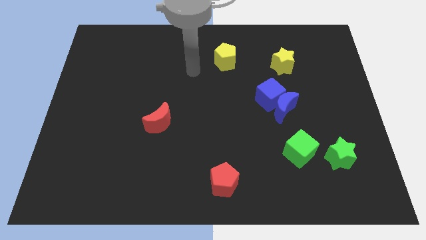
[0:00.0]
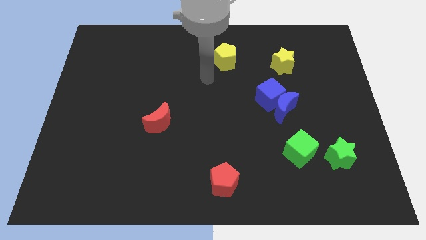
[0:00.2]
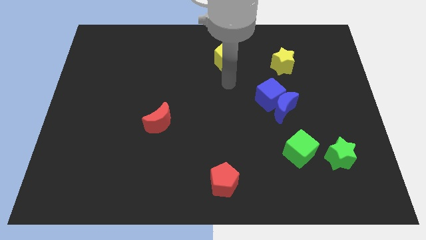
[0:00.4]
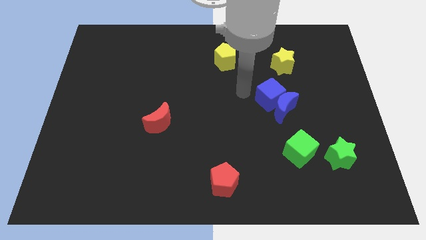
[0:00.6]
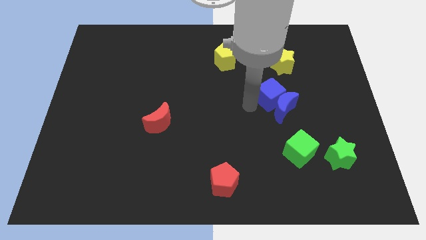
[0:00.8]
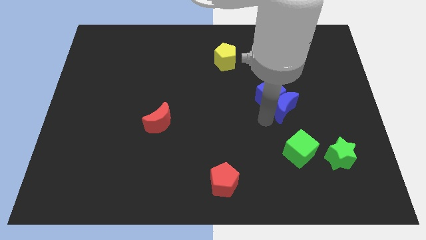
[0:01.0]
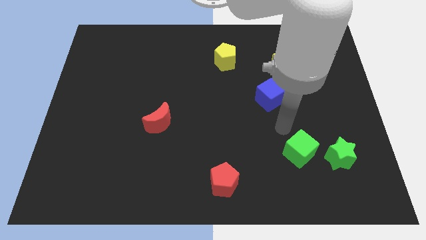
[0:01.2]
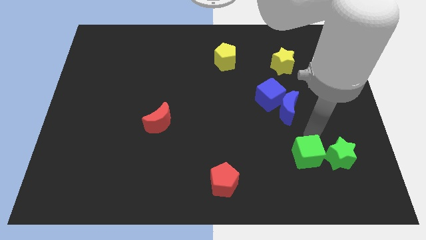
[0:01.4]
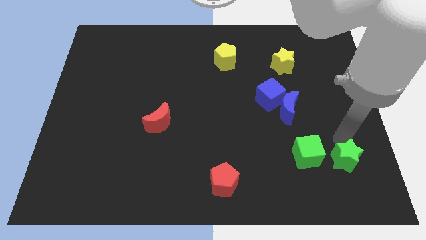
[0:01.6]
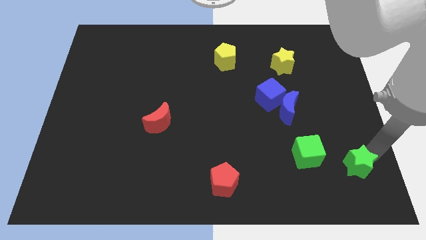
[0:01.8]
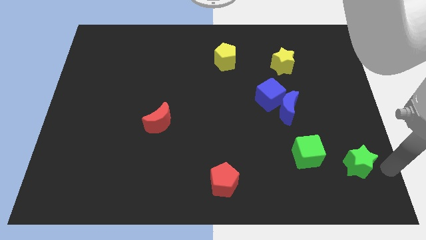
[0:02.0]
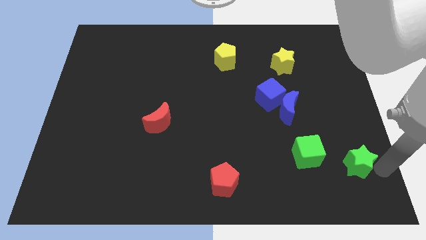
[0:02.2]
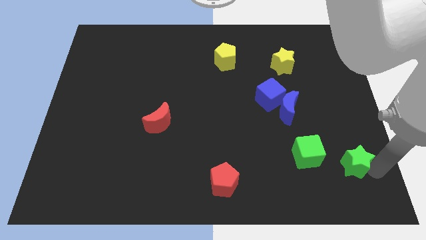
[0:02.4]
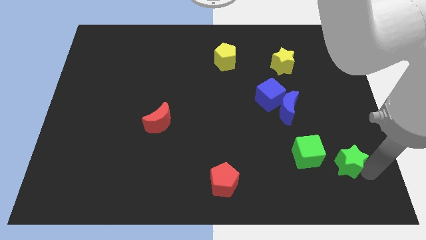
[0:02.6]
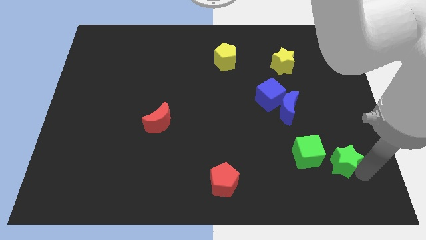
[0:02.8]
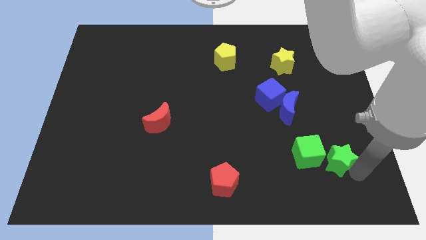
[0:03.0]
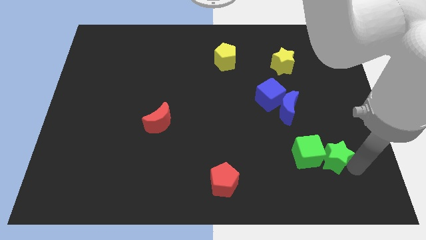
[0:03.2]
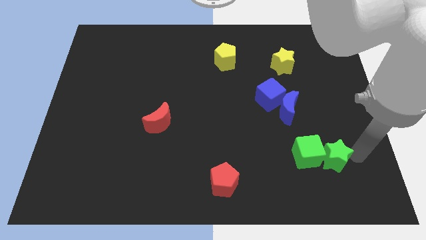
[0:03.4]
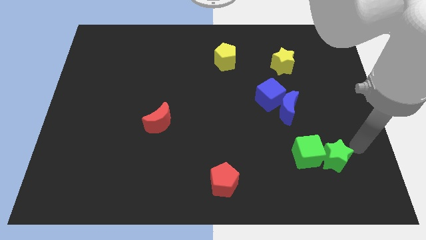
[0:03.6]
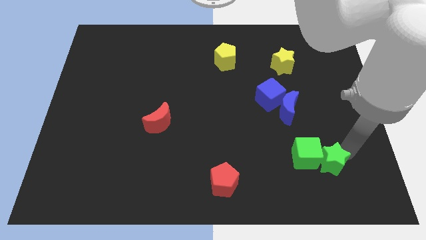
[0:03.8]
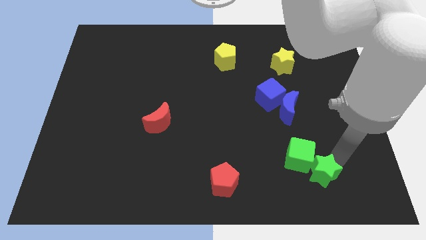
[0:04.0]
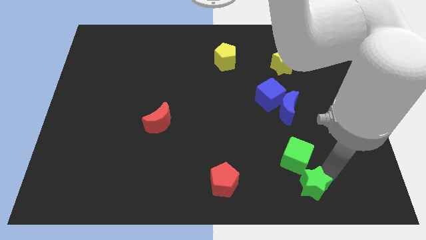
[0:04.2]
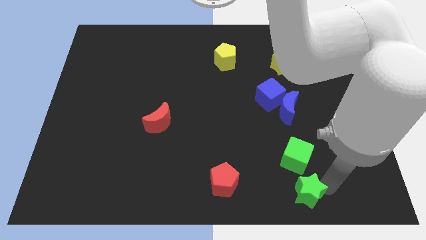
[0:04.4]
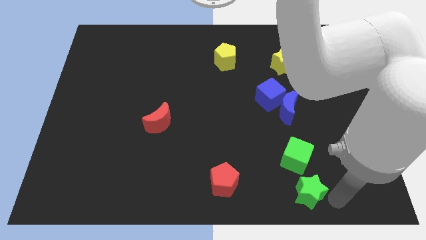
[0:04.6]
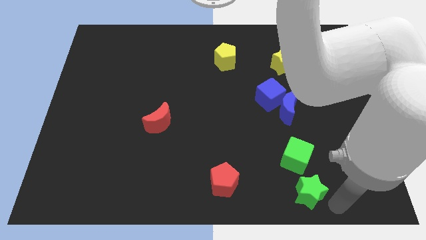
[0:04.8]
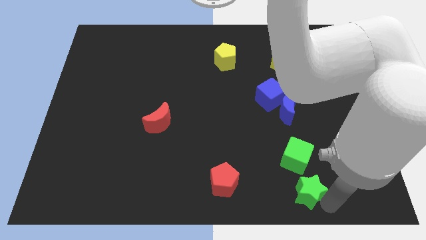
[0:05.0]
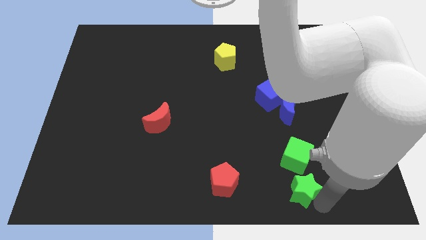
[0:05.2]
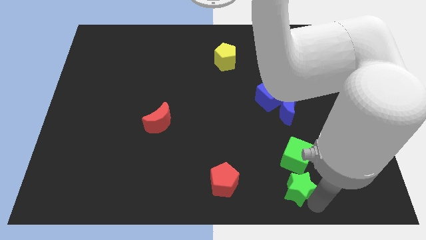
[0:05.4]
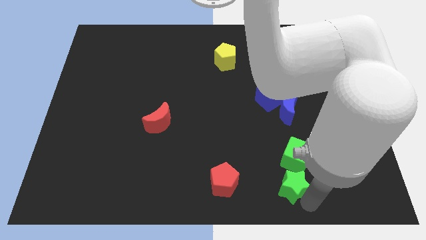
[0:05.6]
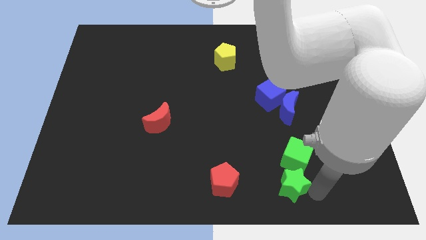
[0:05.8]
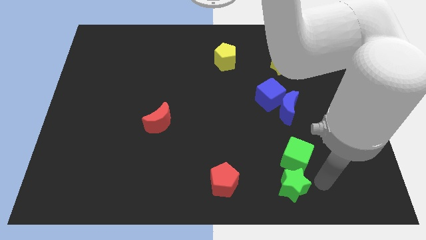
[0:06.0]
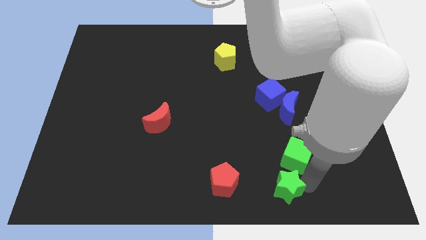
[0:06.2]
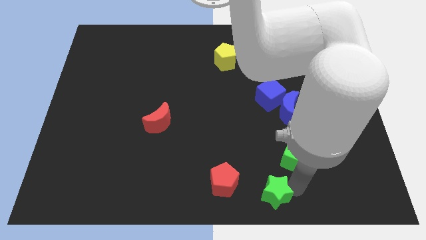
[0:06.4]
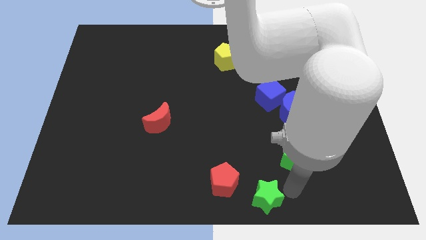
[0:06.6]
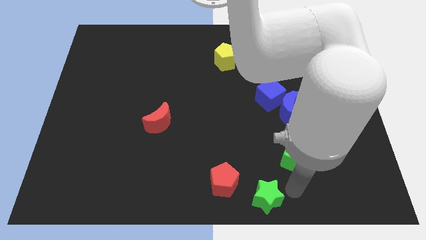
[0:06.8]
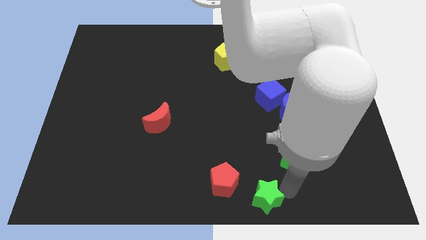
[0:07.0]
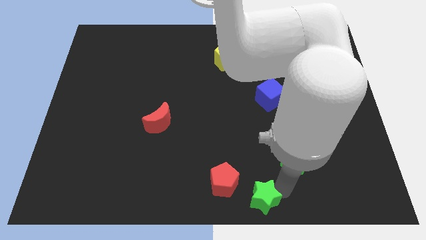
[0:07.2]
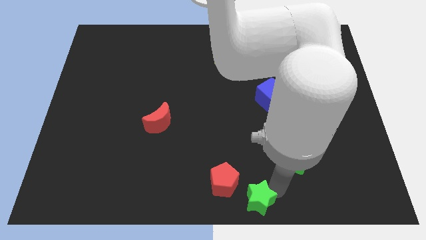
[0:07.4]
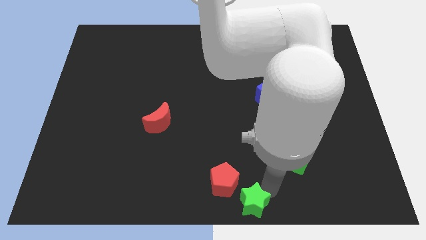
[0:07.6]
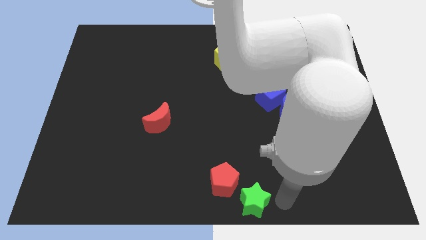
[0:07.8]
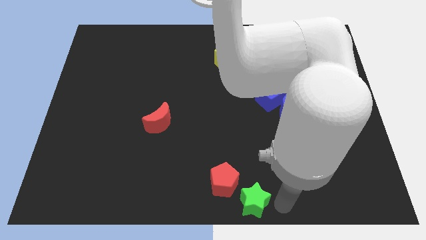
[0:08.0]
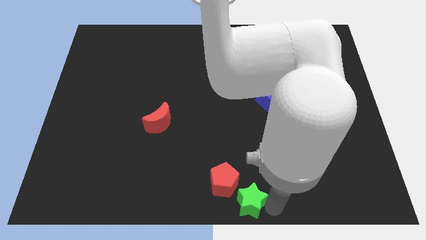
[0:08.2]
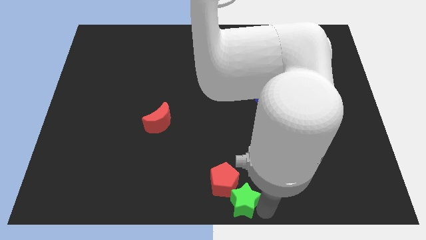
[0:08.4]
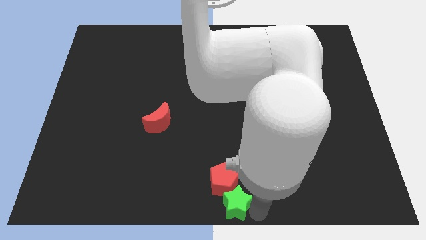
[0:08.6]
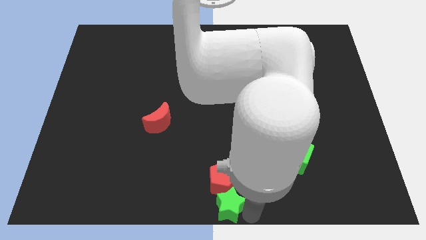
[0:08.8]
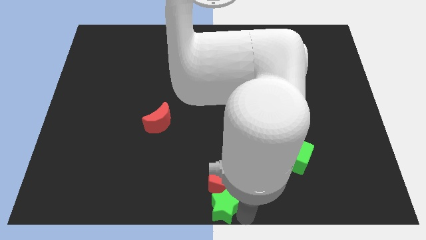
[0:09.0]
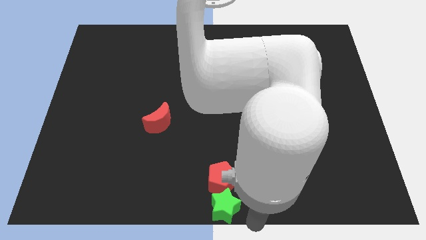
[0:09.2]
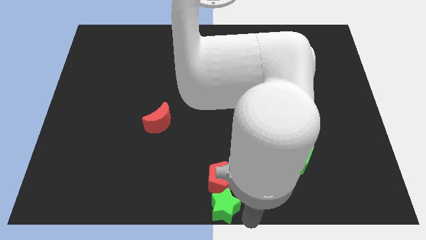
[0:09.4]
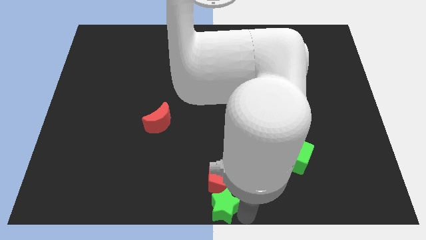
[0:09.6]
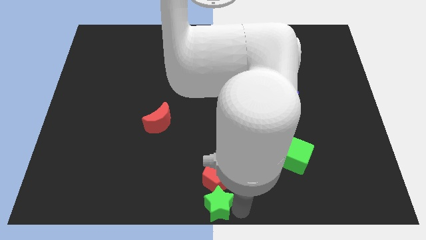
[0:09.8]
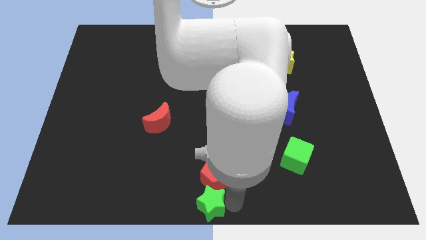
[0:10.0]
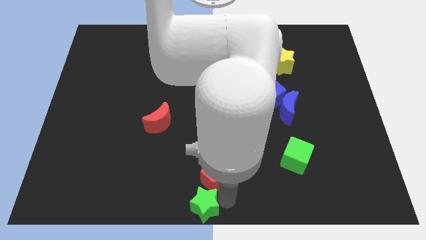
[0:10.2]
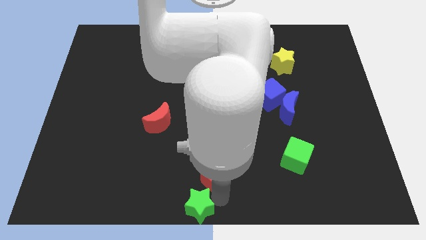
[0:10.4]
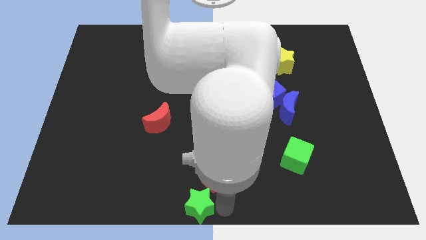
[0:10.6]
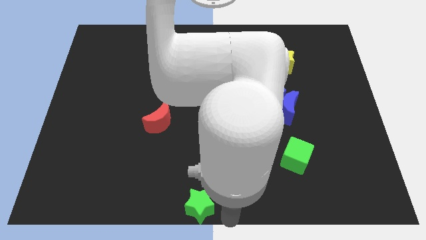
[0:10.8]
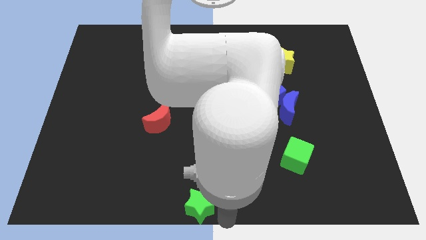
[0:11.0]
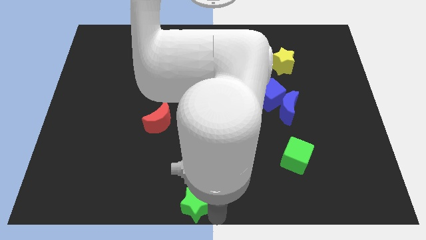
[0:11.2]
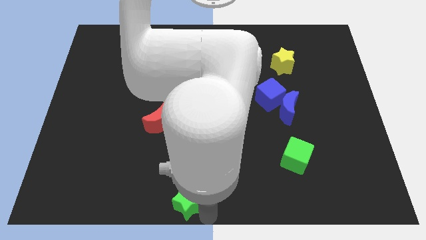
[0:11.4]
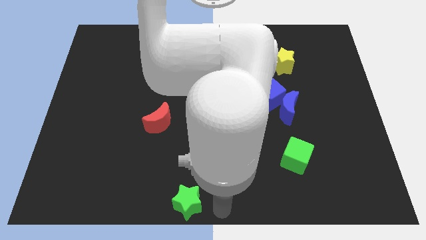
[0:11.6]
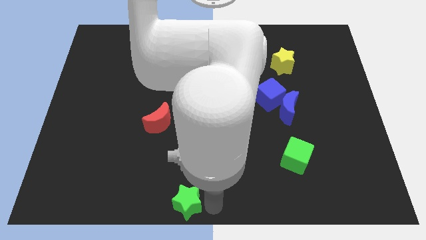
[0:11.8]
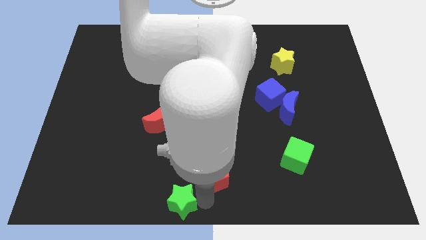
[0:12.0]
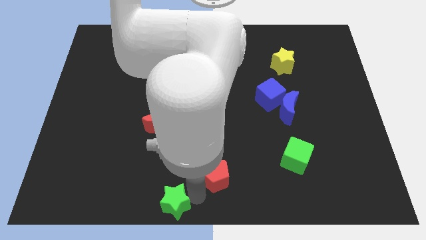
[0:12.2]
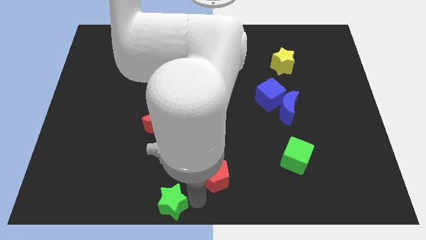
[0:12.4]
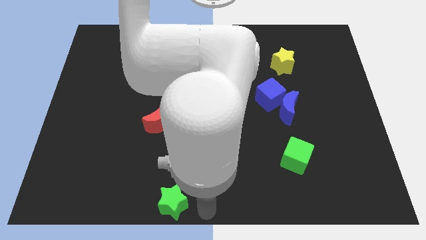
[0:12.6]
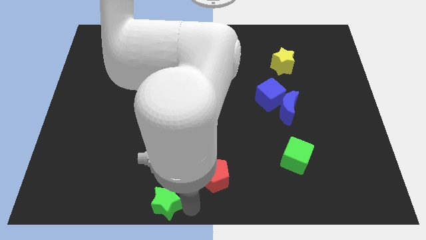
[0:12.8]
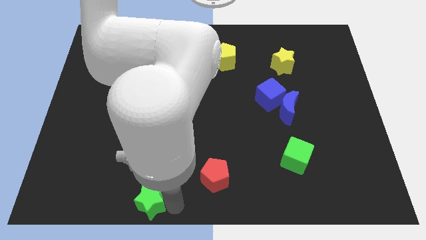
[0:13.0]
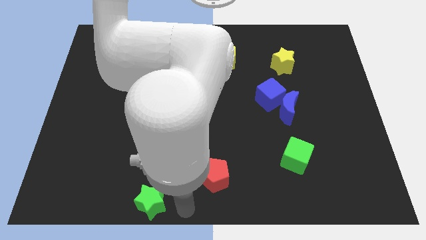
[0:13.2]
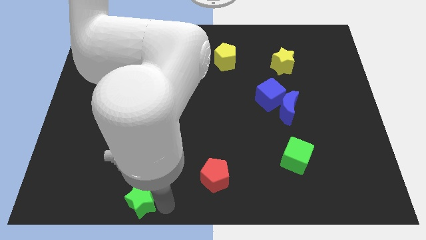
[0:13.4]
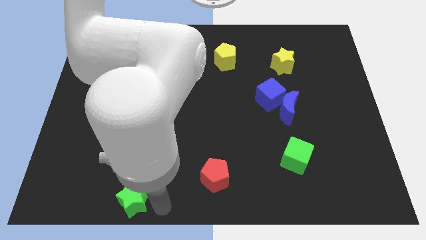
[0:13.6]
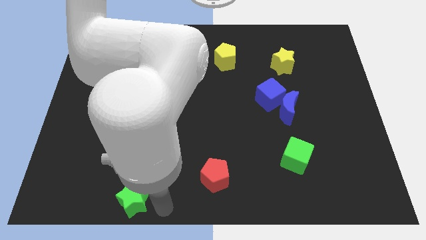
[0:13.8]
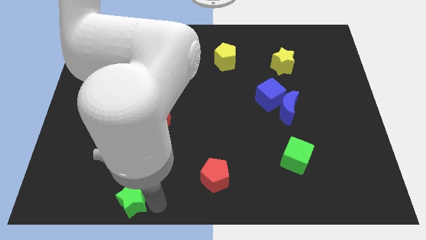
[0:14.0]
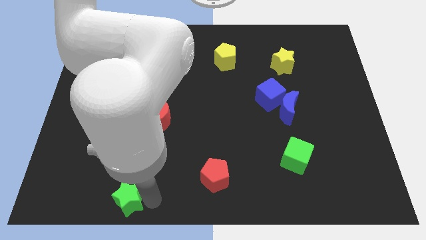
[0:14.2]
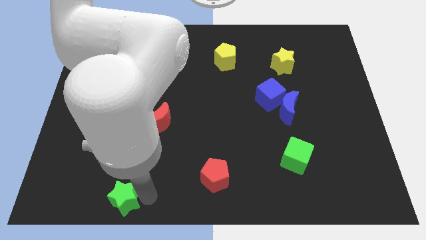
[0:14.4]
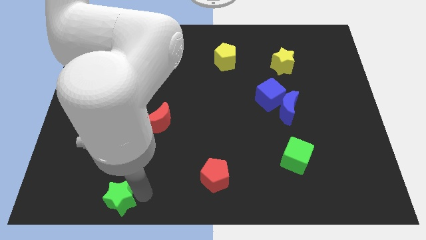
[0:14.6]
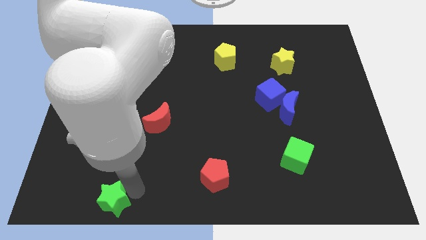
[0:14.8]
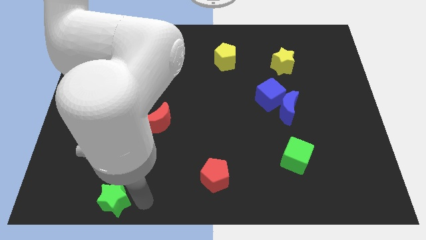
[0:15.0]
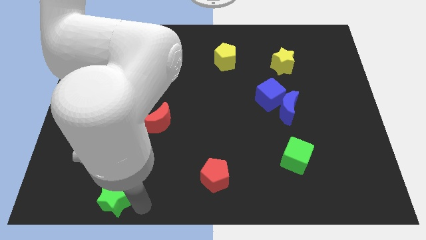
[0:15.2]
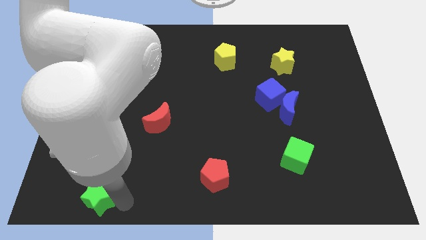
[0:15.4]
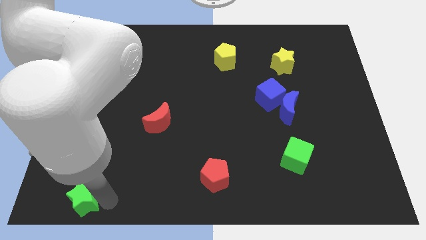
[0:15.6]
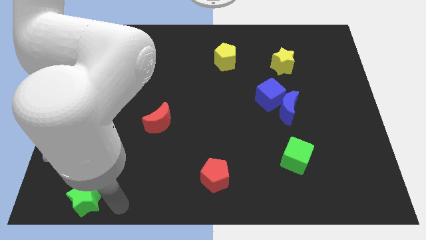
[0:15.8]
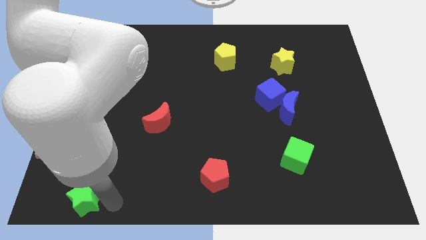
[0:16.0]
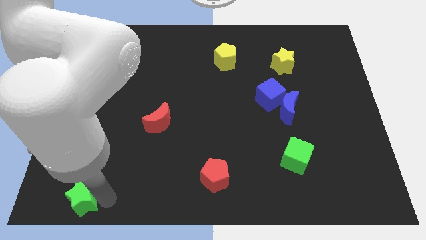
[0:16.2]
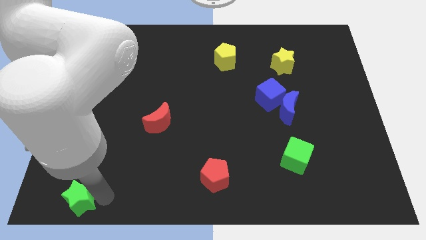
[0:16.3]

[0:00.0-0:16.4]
push the green star to the bottom left
